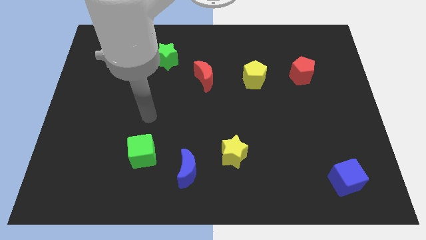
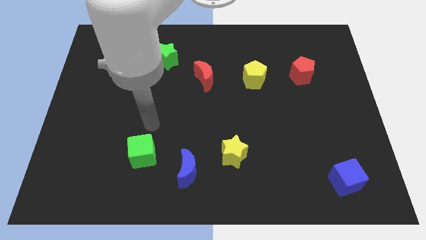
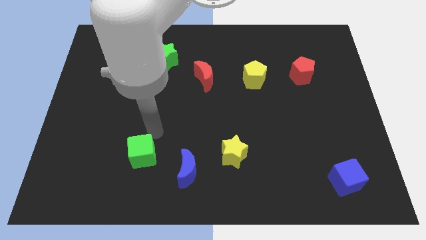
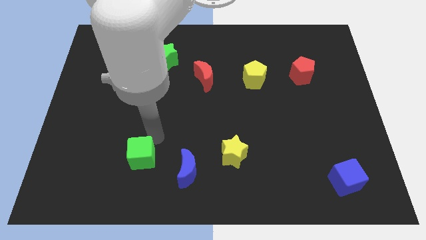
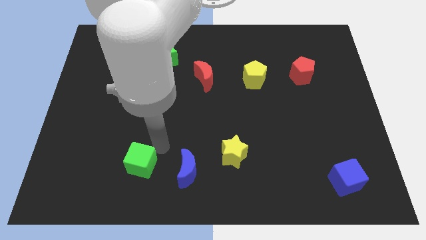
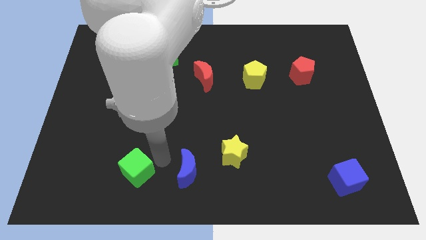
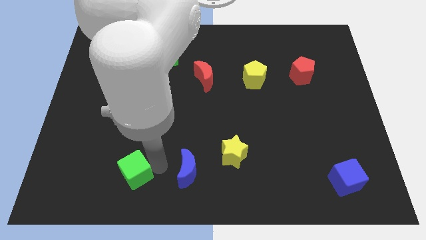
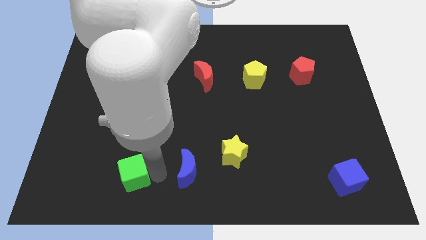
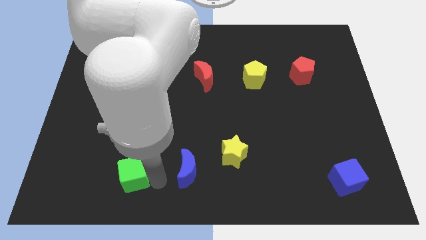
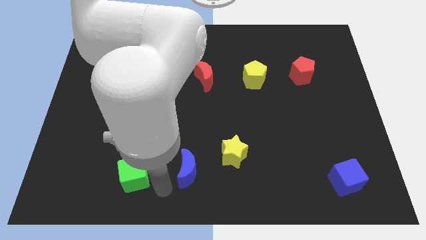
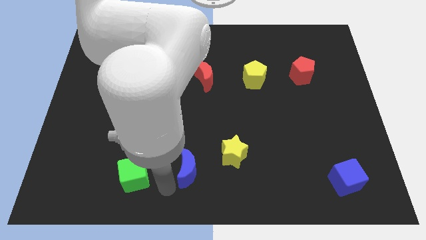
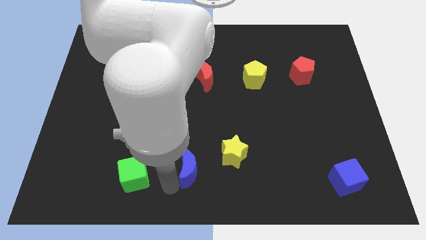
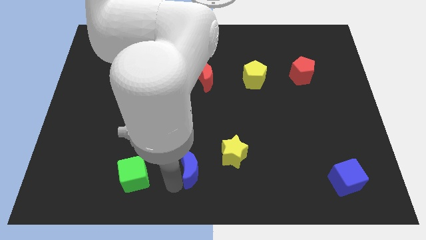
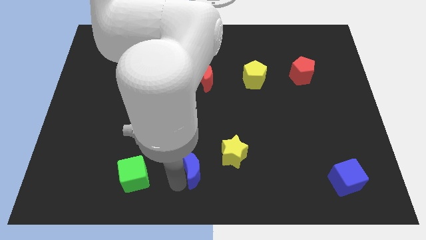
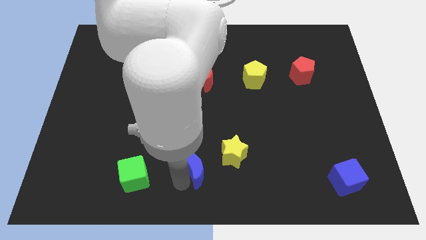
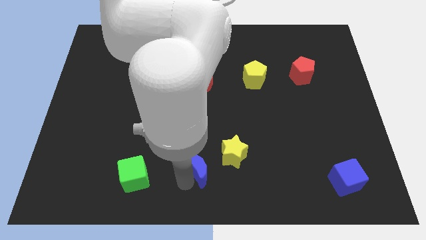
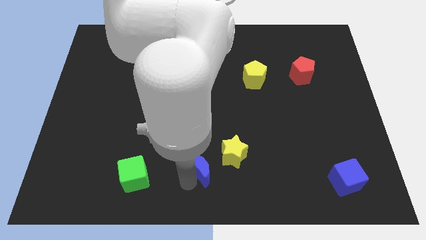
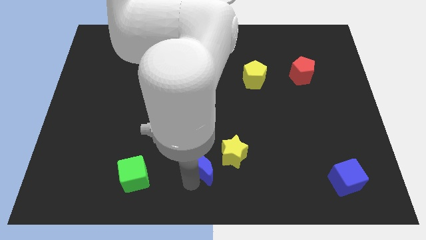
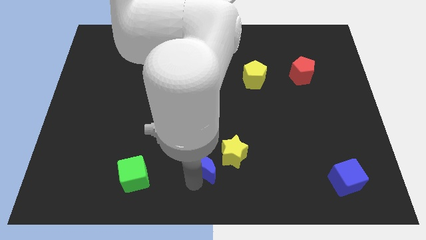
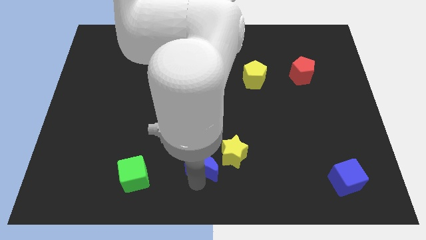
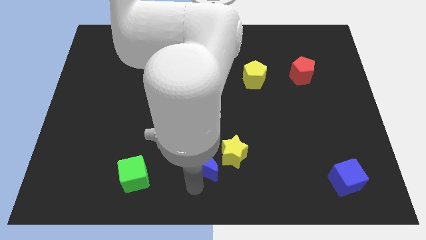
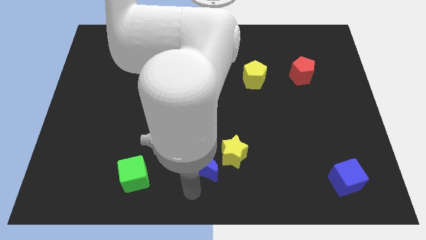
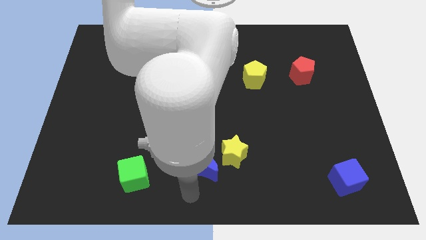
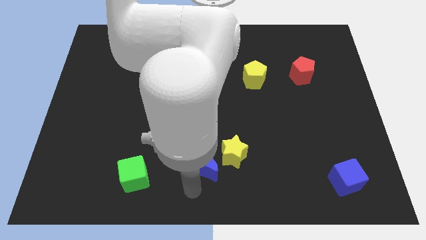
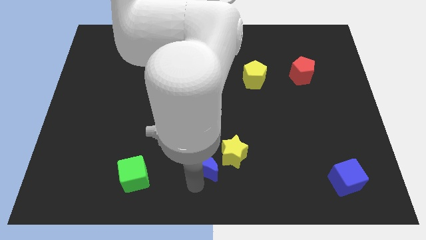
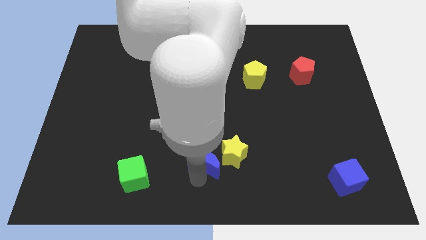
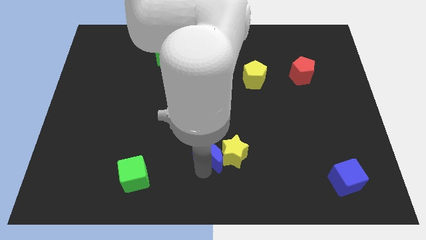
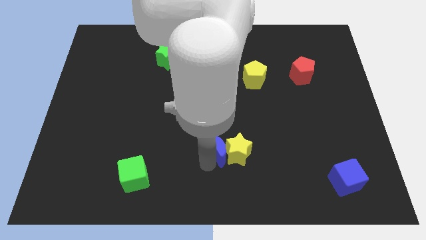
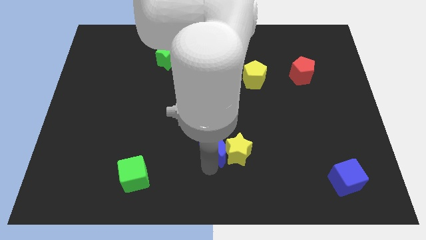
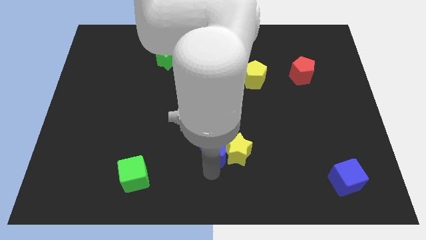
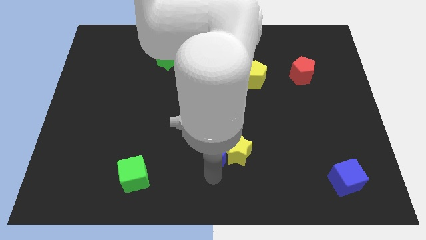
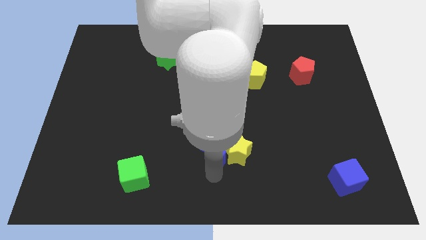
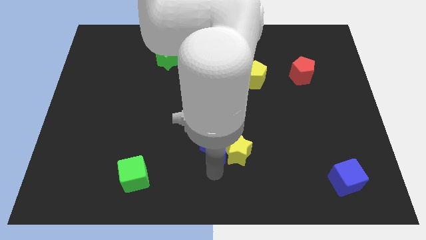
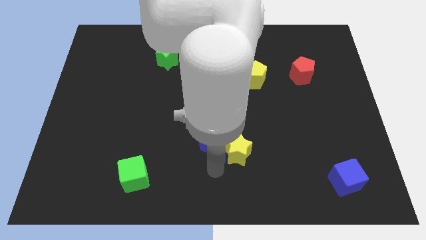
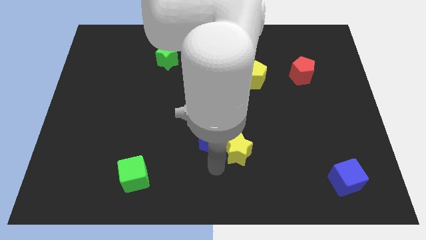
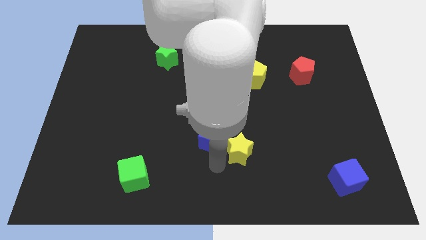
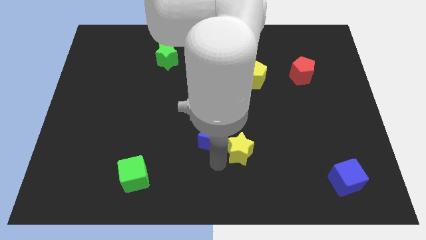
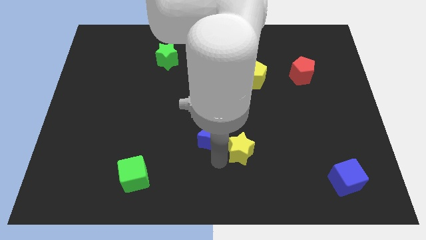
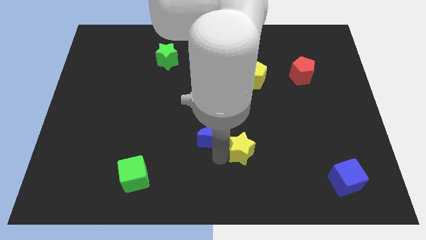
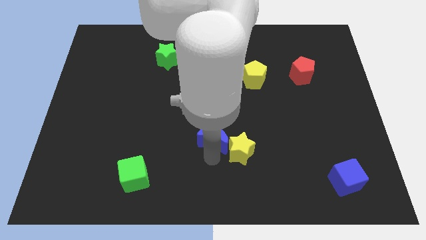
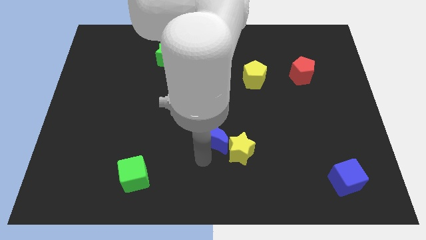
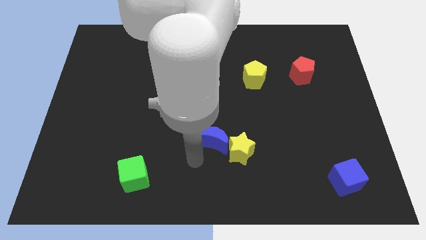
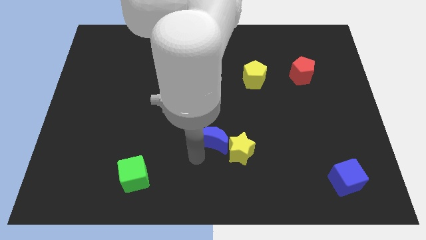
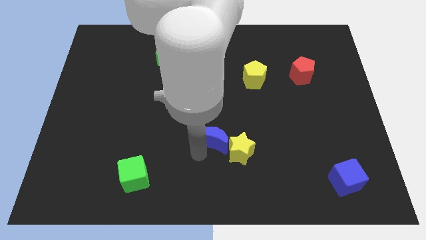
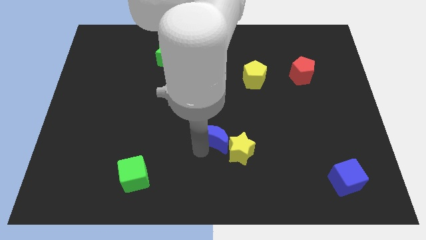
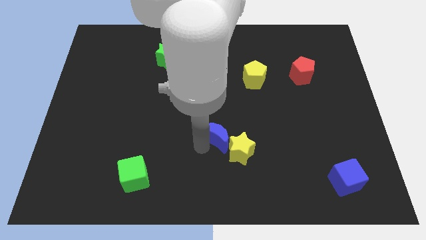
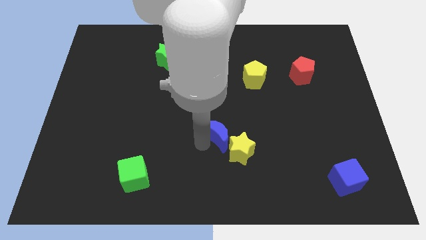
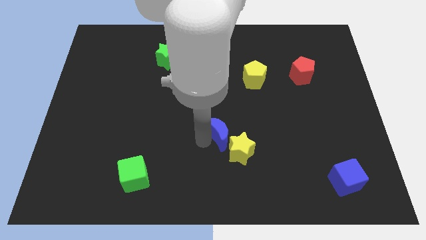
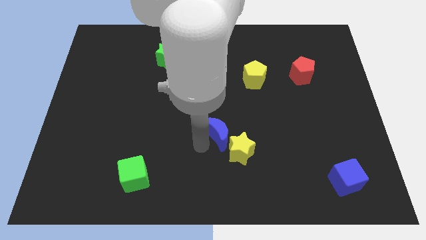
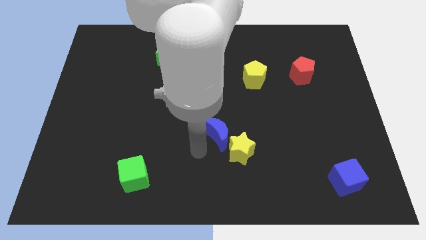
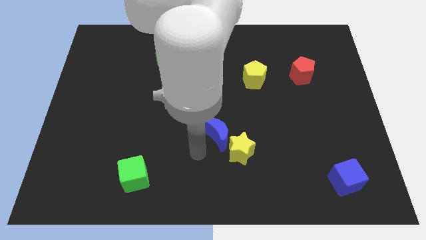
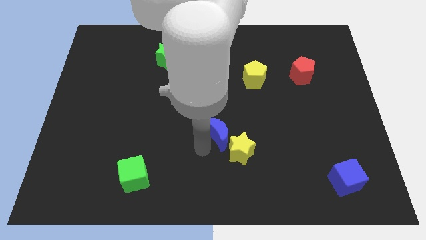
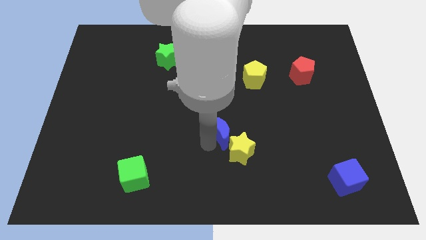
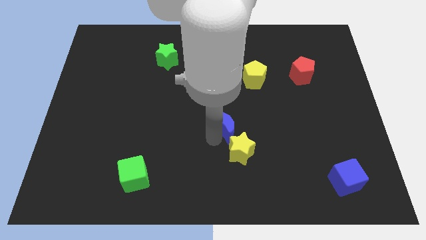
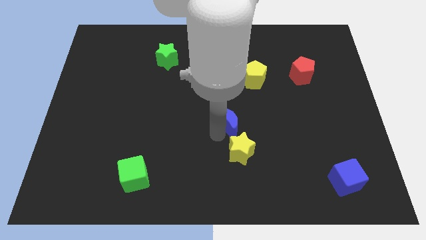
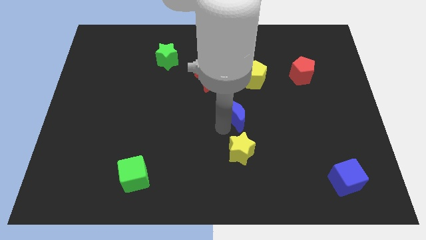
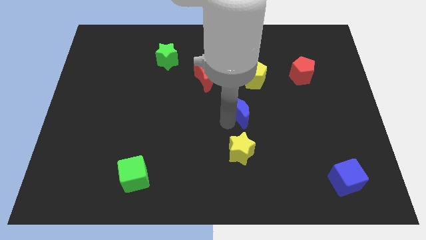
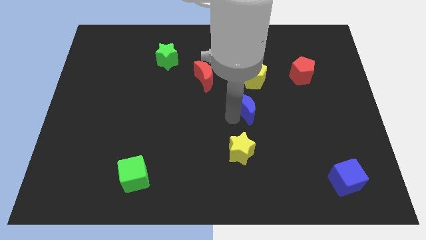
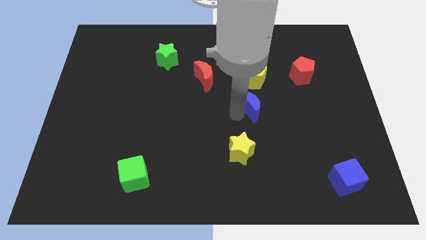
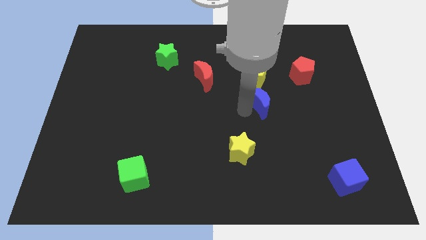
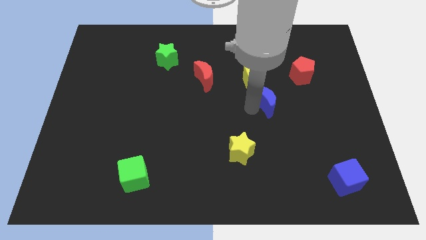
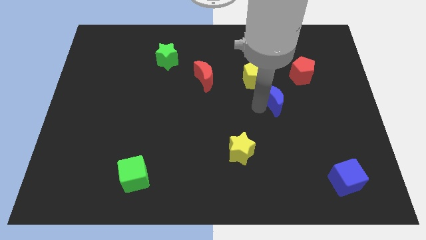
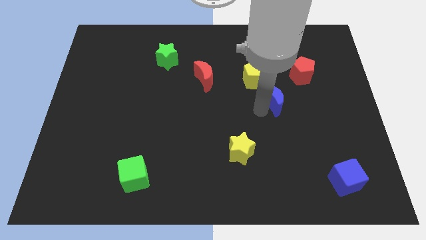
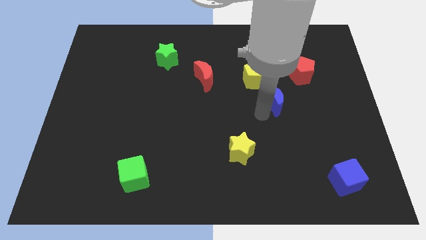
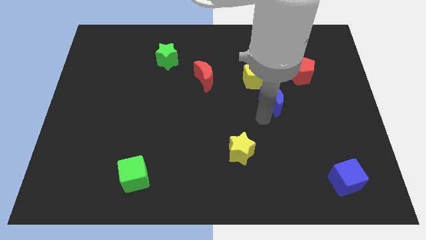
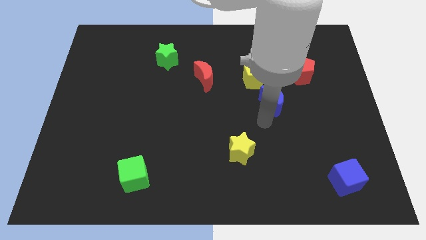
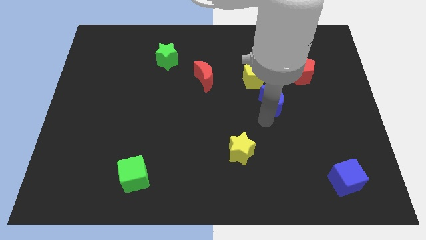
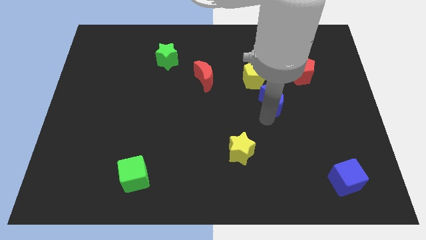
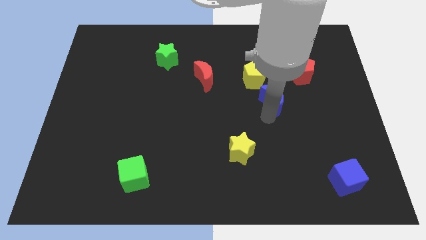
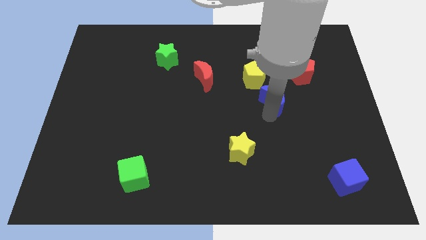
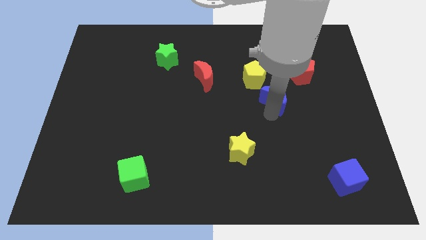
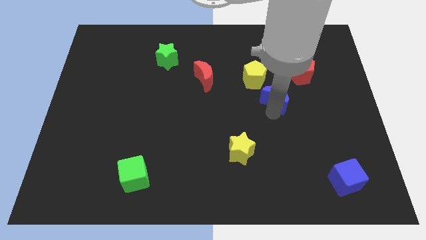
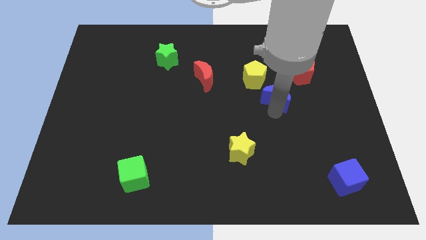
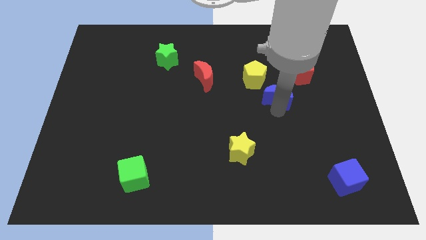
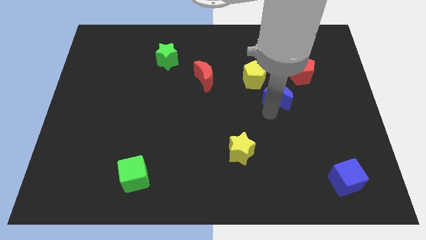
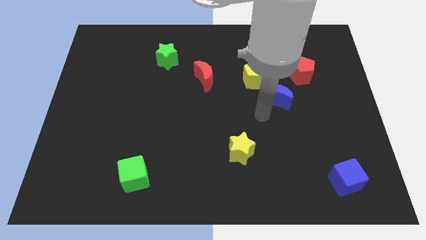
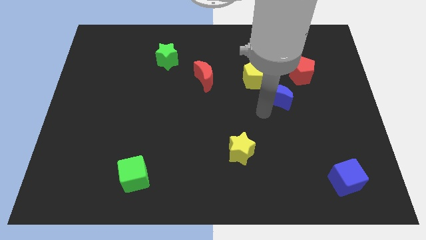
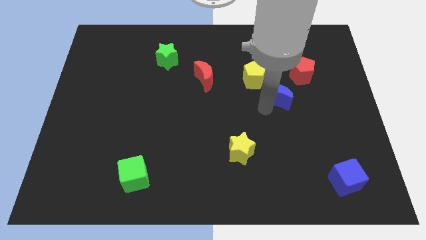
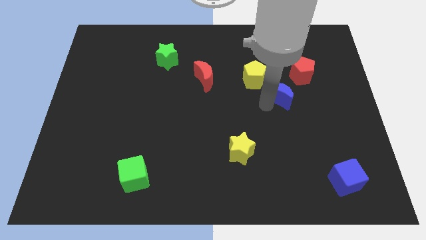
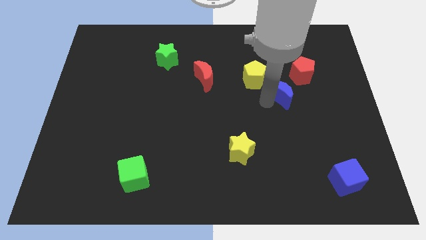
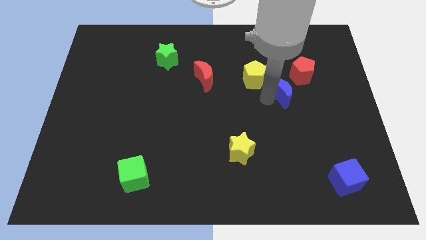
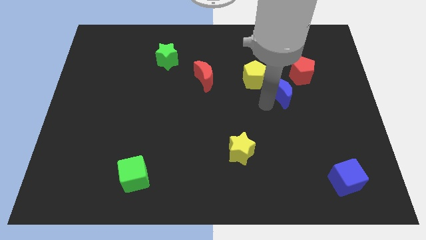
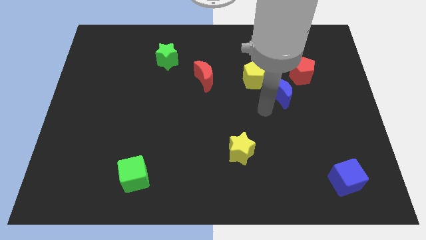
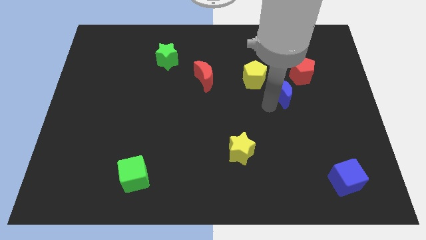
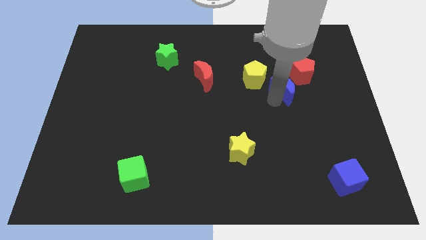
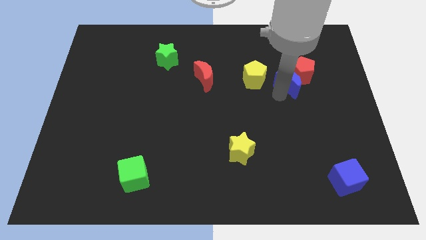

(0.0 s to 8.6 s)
put the blue moon towards the red pentagon
